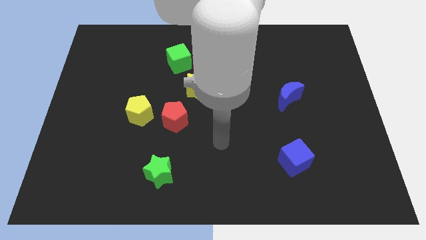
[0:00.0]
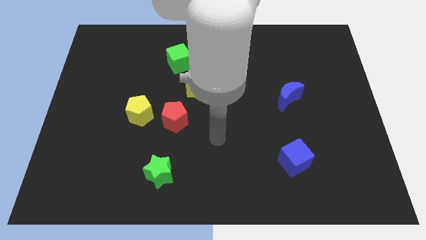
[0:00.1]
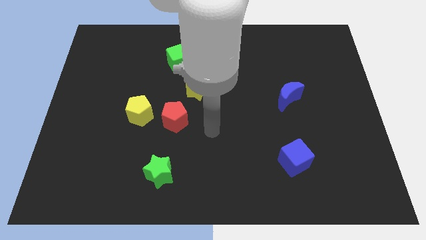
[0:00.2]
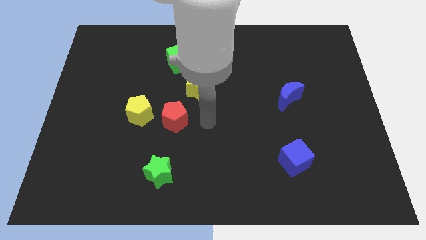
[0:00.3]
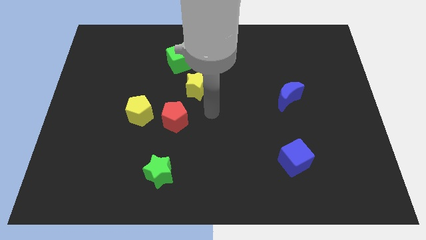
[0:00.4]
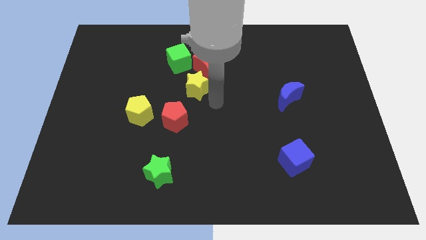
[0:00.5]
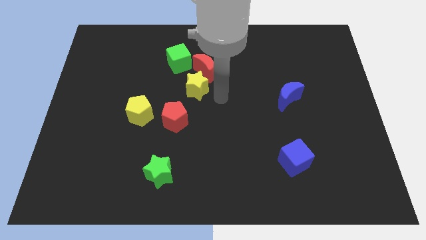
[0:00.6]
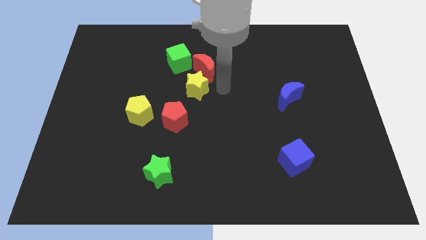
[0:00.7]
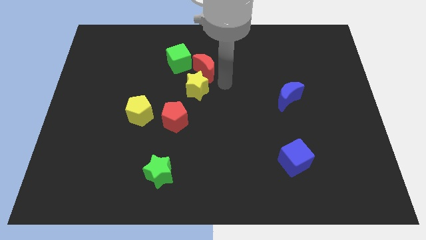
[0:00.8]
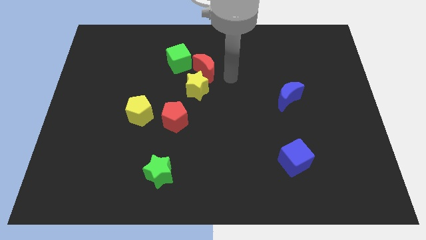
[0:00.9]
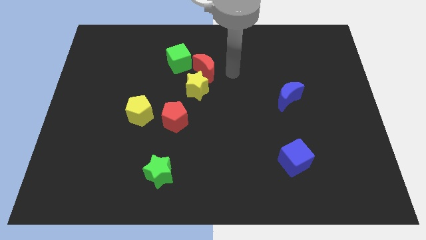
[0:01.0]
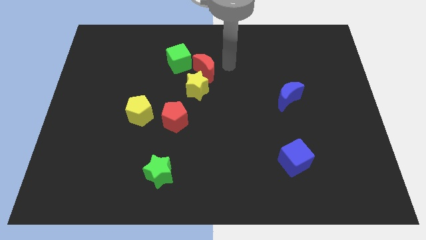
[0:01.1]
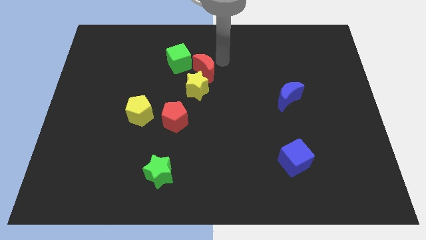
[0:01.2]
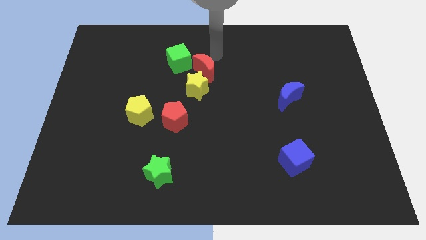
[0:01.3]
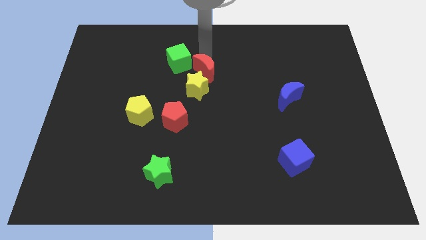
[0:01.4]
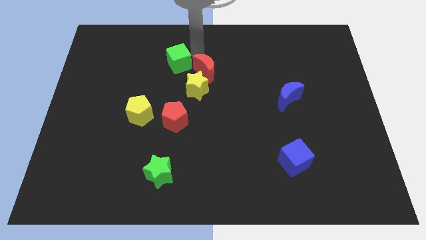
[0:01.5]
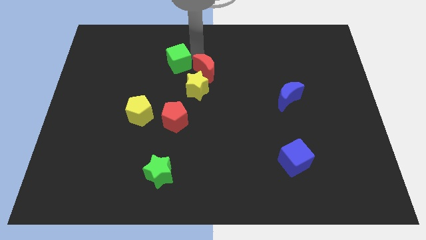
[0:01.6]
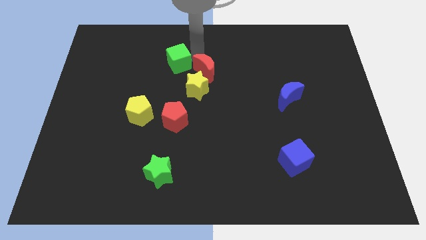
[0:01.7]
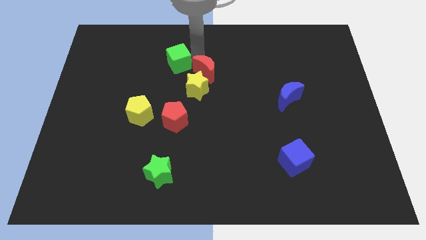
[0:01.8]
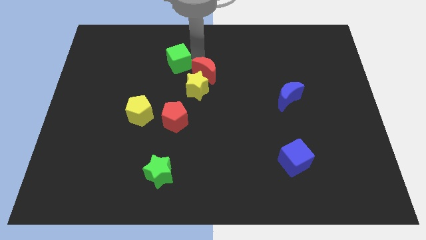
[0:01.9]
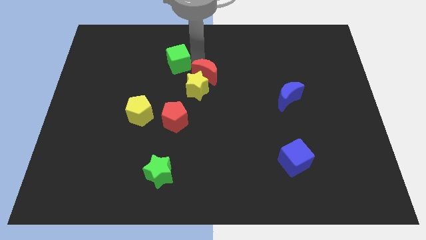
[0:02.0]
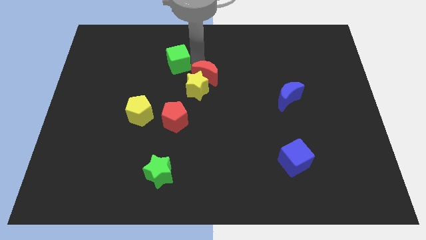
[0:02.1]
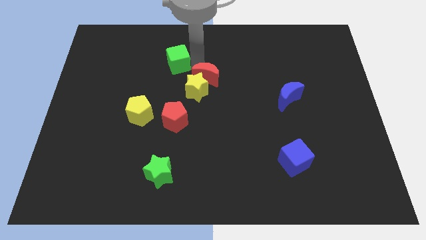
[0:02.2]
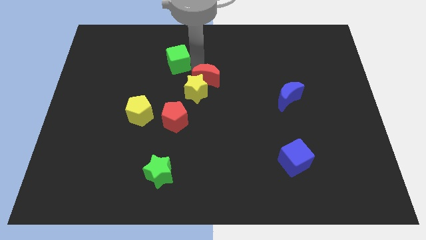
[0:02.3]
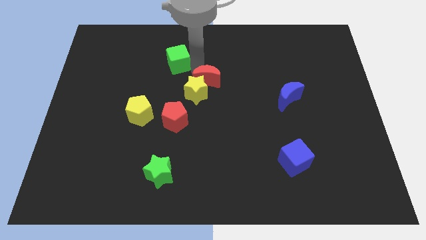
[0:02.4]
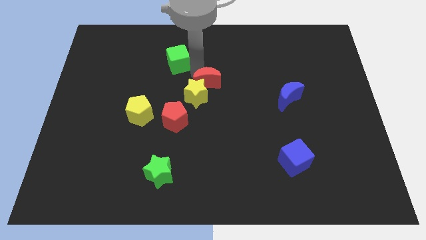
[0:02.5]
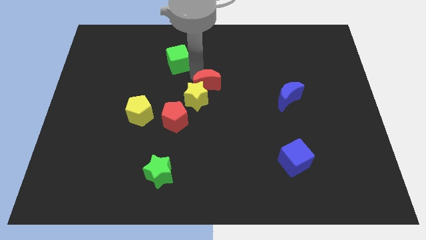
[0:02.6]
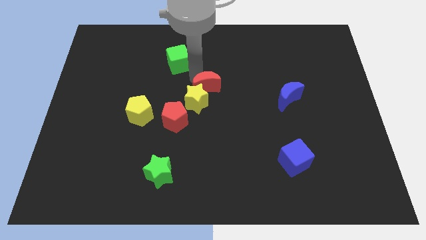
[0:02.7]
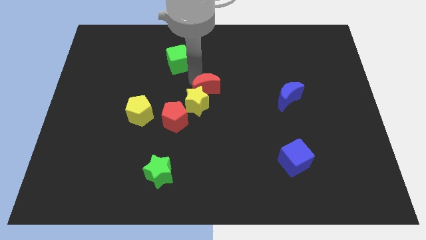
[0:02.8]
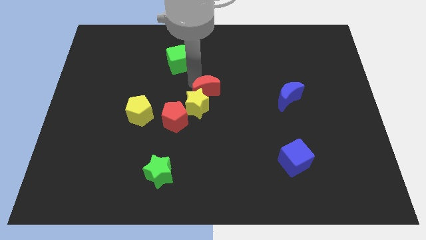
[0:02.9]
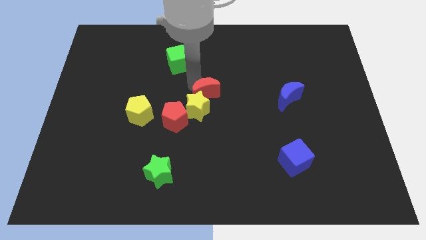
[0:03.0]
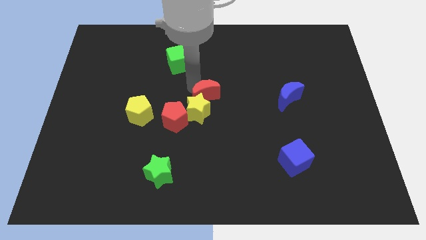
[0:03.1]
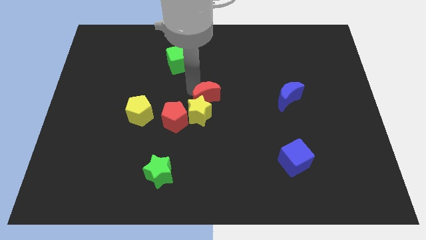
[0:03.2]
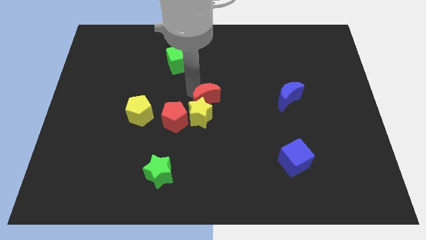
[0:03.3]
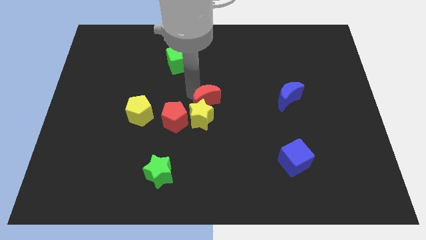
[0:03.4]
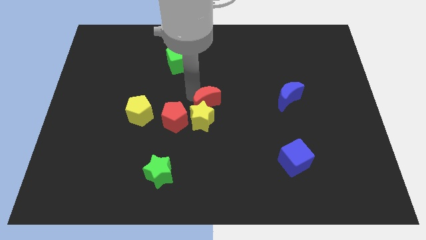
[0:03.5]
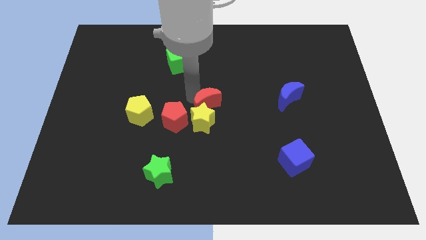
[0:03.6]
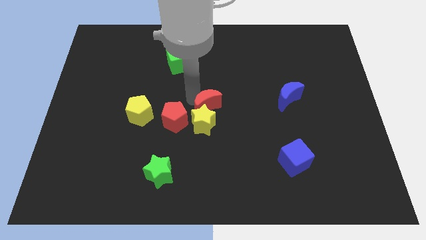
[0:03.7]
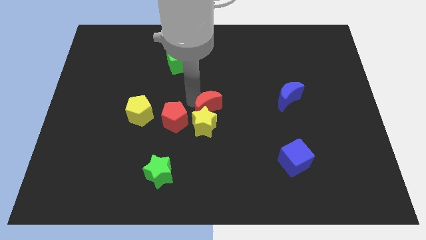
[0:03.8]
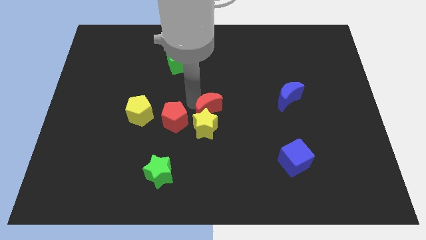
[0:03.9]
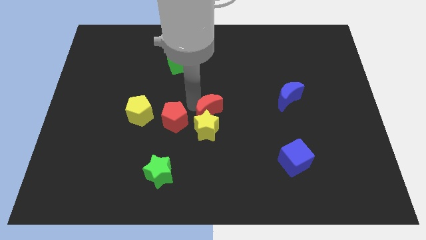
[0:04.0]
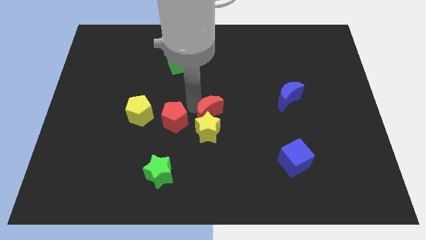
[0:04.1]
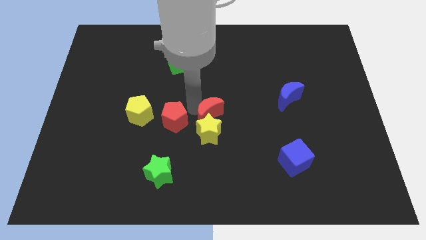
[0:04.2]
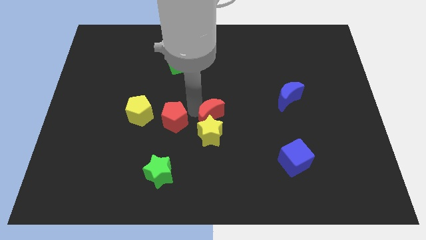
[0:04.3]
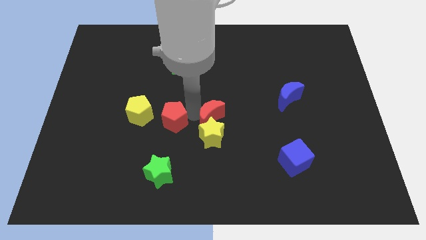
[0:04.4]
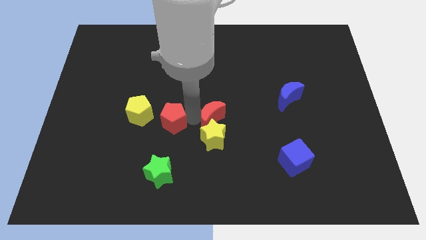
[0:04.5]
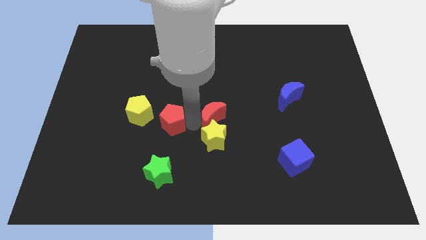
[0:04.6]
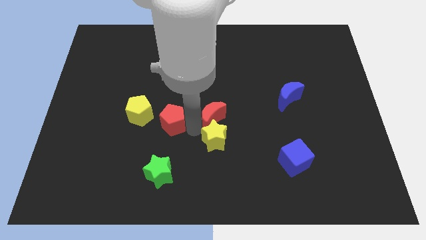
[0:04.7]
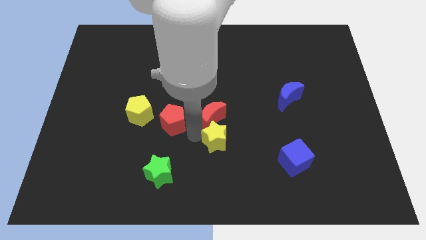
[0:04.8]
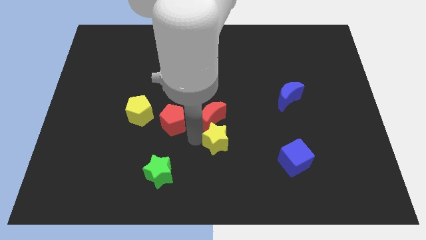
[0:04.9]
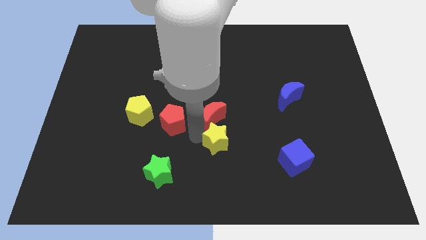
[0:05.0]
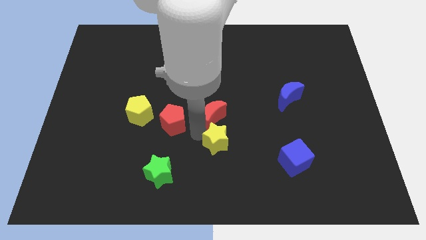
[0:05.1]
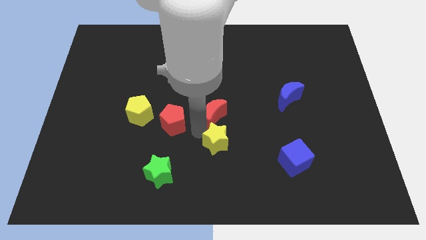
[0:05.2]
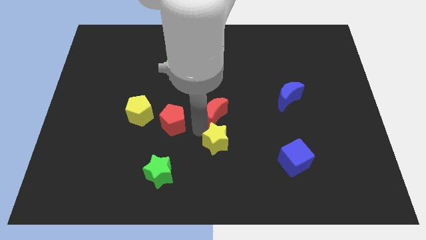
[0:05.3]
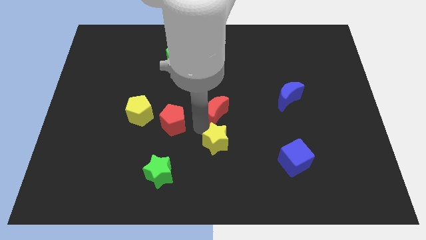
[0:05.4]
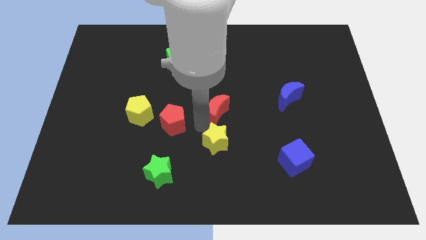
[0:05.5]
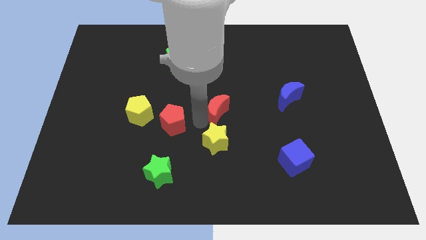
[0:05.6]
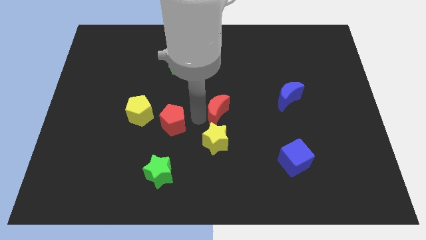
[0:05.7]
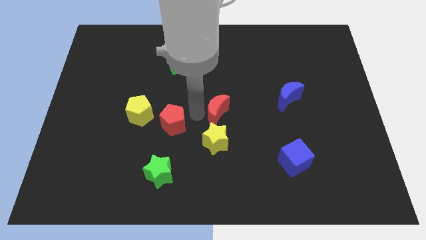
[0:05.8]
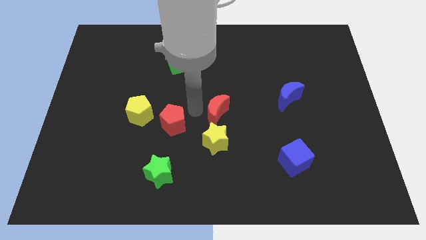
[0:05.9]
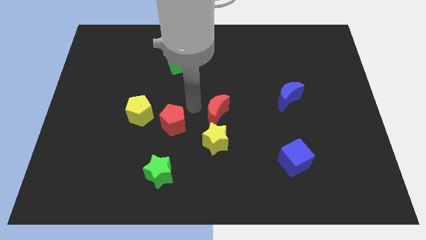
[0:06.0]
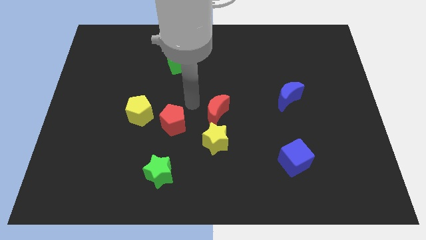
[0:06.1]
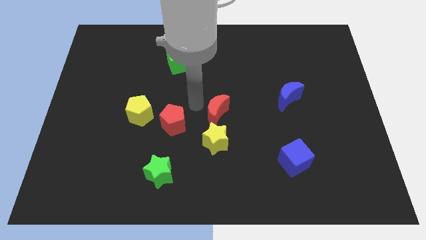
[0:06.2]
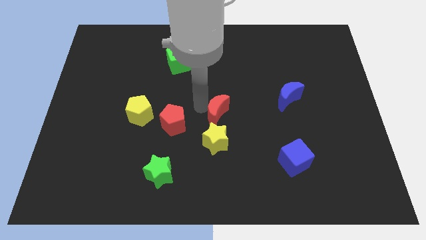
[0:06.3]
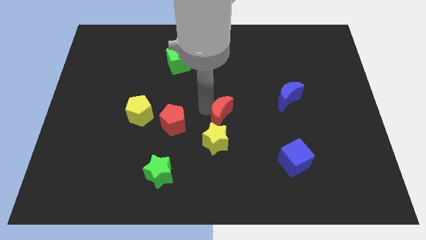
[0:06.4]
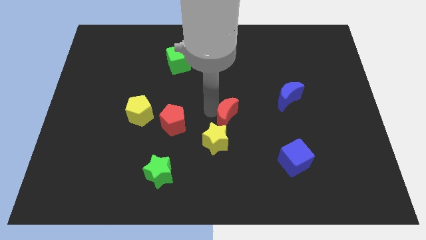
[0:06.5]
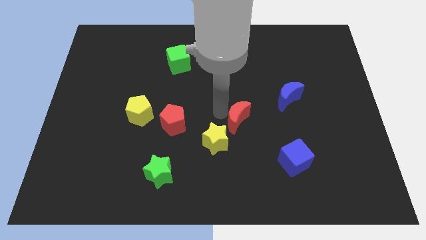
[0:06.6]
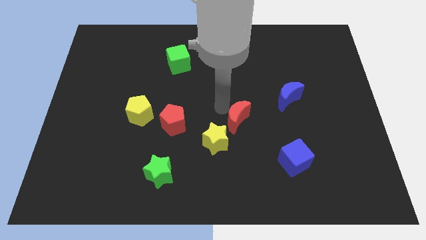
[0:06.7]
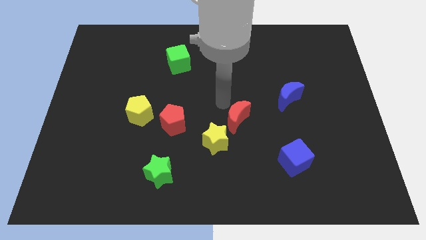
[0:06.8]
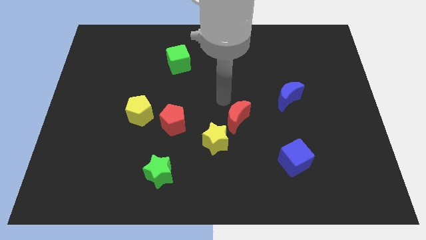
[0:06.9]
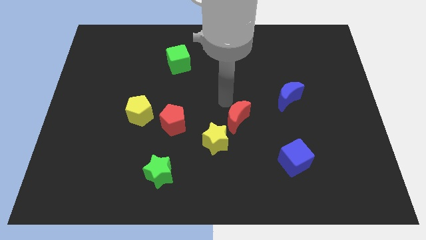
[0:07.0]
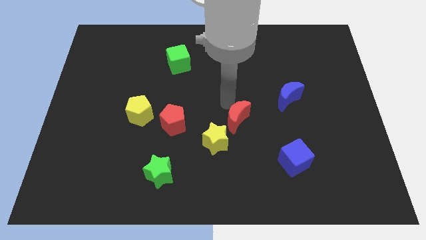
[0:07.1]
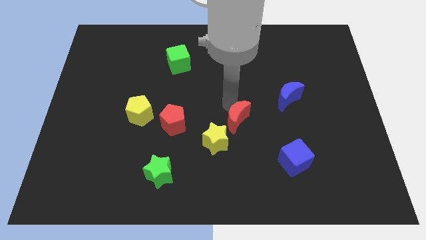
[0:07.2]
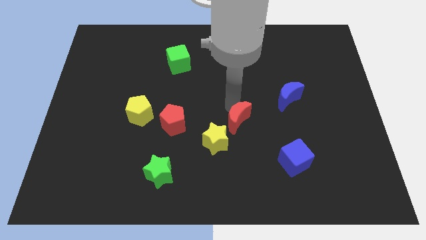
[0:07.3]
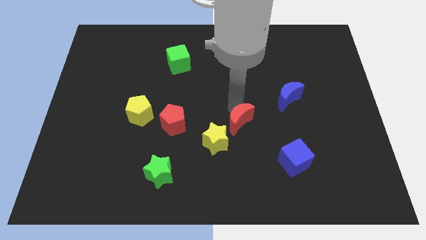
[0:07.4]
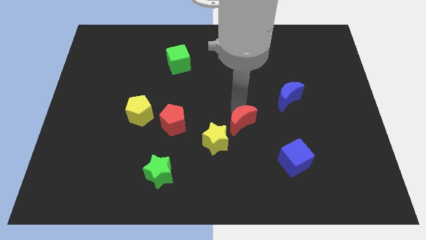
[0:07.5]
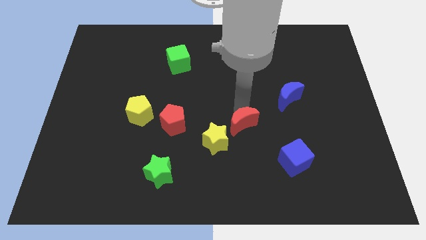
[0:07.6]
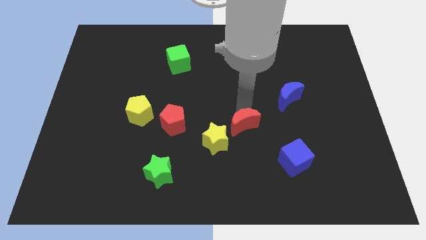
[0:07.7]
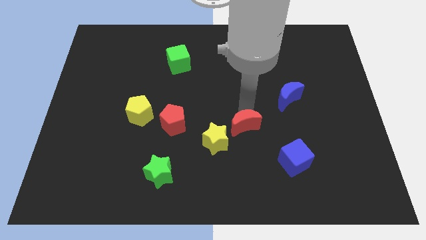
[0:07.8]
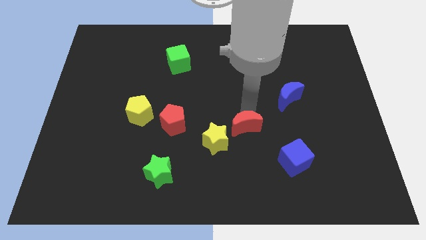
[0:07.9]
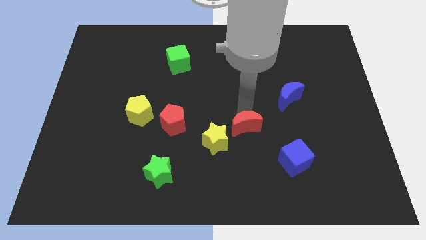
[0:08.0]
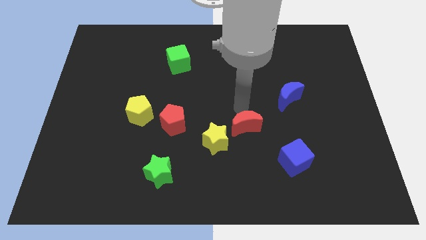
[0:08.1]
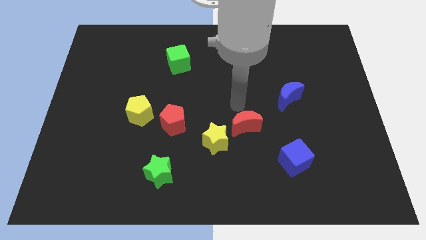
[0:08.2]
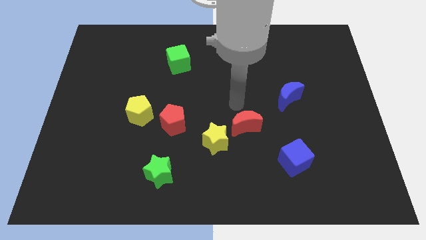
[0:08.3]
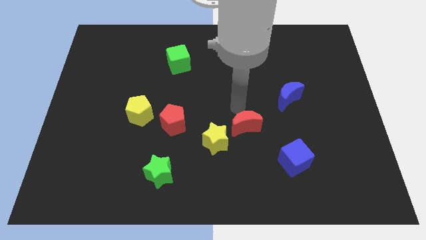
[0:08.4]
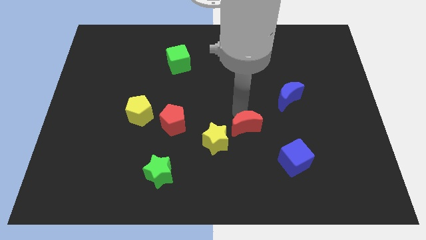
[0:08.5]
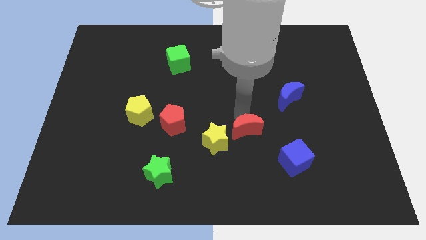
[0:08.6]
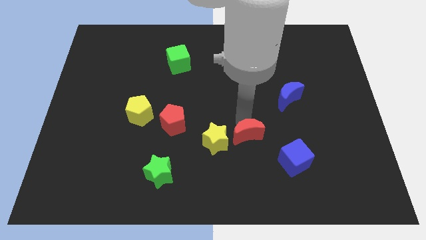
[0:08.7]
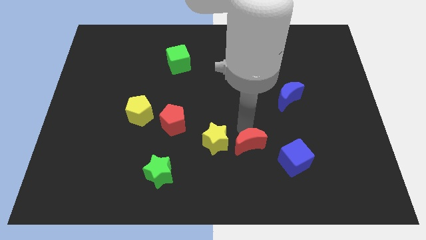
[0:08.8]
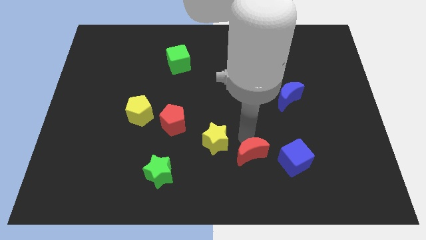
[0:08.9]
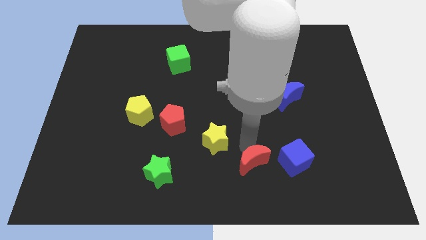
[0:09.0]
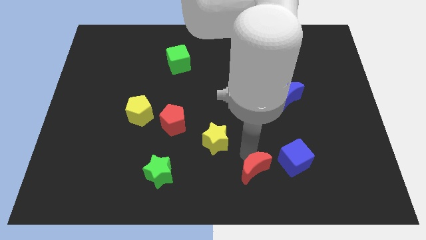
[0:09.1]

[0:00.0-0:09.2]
put the red moon to the bottom left of the blue cube
